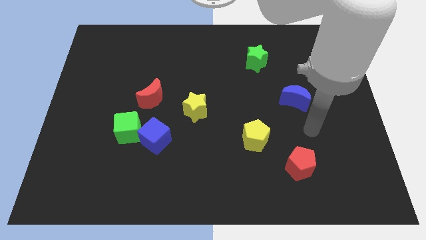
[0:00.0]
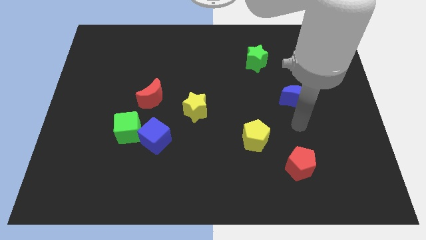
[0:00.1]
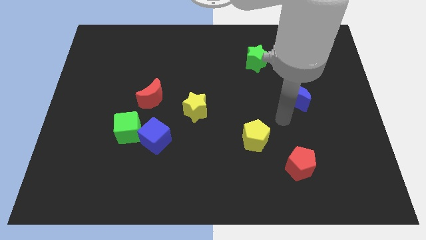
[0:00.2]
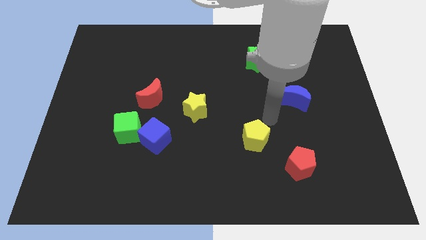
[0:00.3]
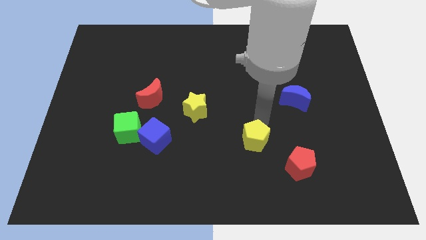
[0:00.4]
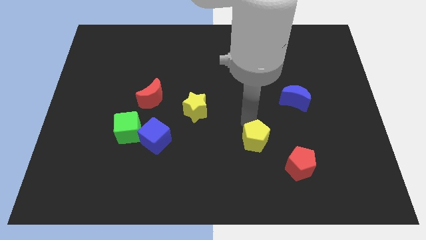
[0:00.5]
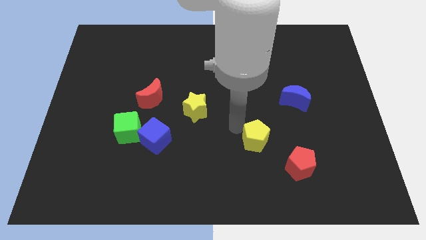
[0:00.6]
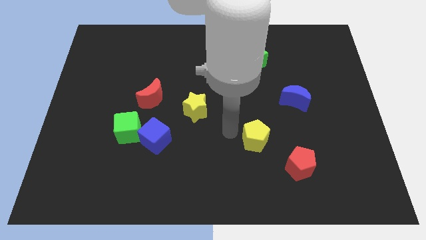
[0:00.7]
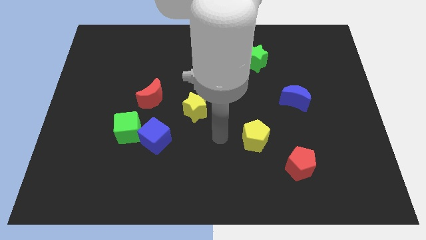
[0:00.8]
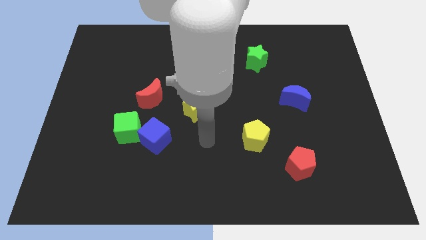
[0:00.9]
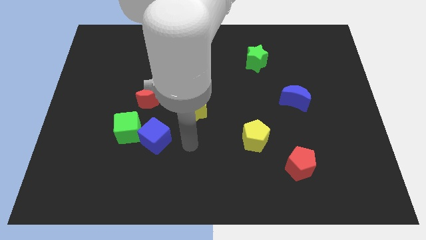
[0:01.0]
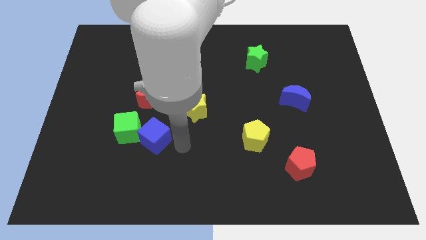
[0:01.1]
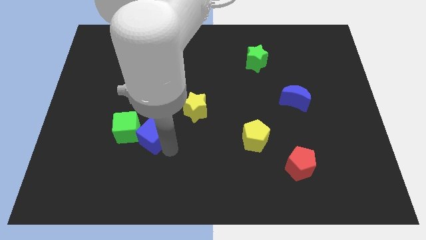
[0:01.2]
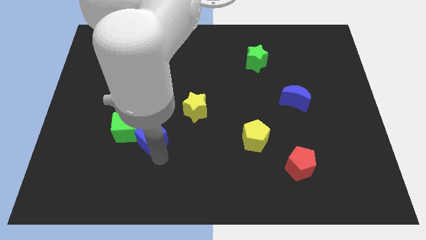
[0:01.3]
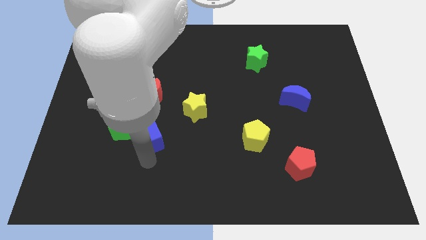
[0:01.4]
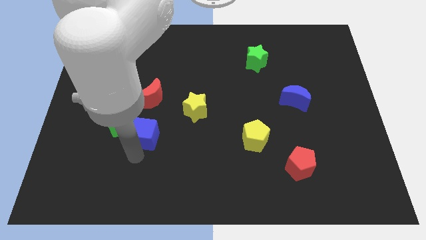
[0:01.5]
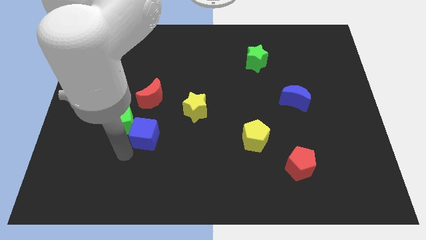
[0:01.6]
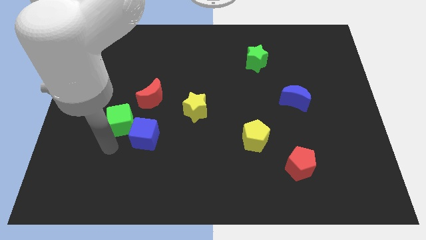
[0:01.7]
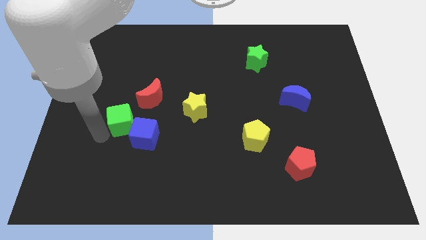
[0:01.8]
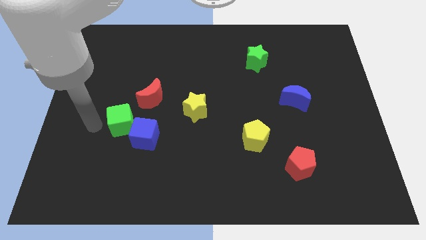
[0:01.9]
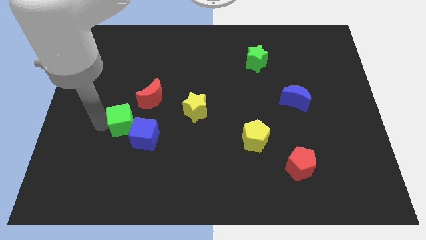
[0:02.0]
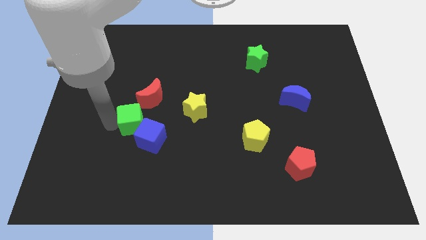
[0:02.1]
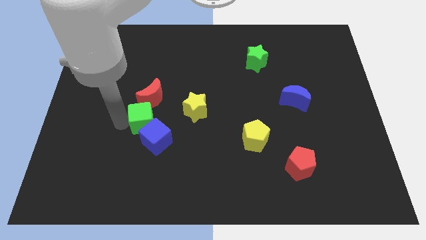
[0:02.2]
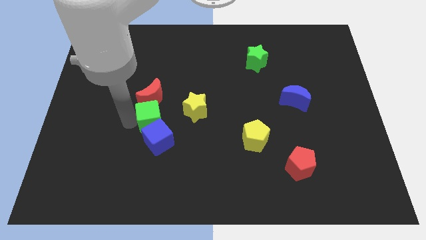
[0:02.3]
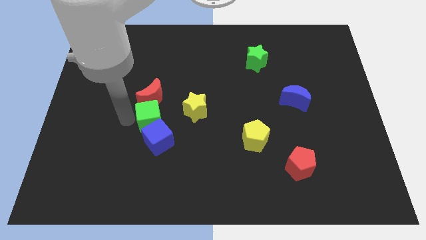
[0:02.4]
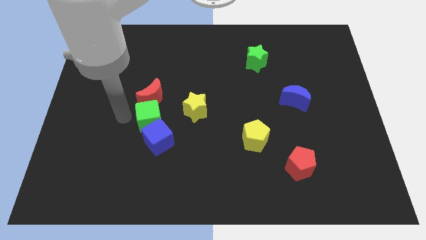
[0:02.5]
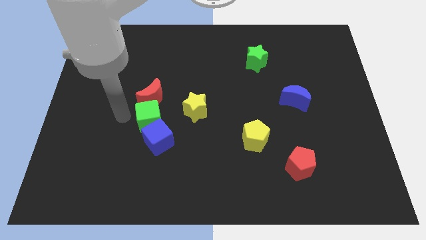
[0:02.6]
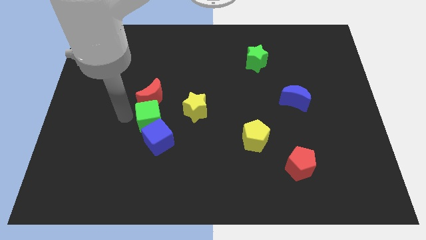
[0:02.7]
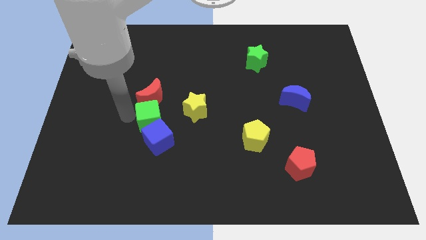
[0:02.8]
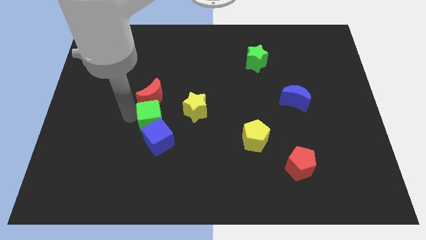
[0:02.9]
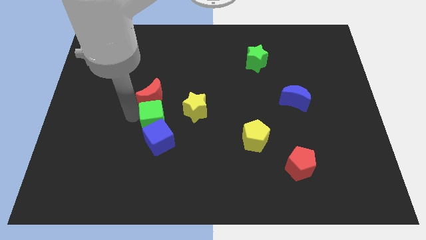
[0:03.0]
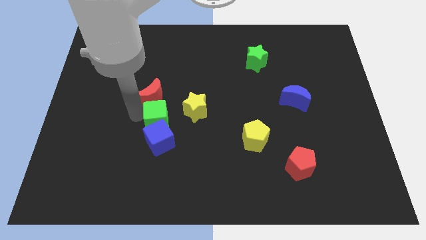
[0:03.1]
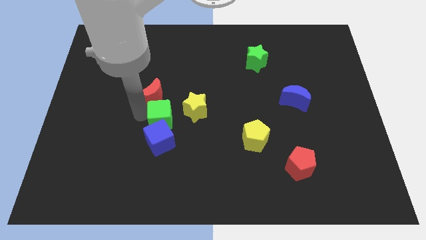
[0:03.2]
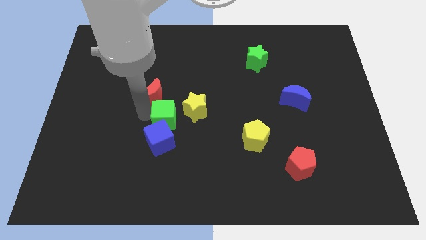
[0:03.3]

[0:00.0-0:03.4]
slide the green cube to the right slightly

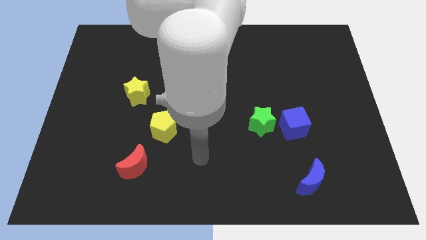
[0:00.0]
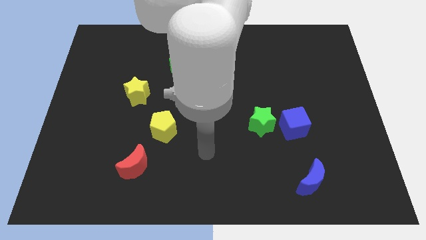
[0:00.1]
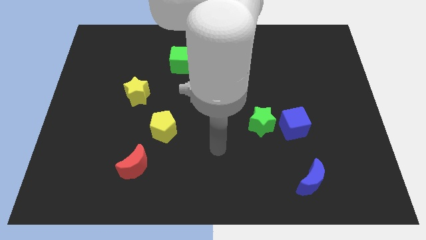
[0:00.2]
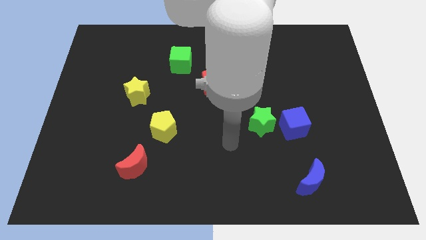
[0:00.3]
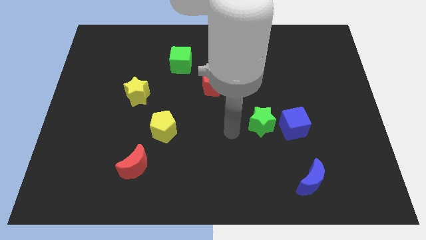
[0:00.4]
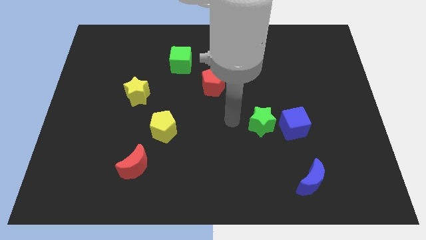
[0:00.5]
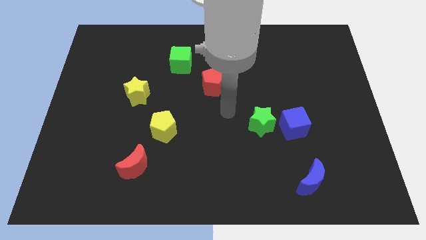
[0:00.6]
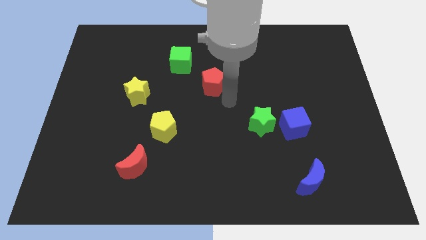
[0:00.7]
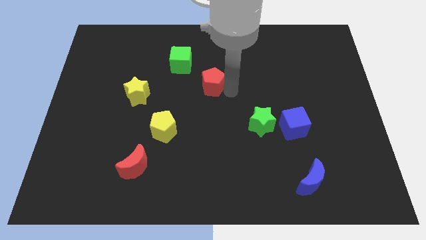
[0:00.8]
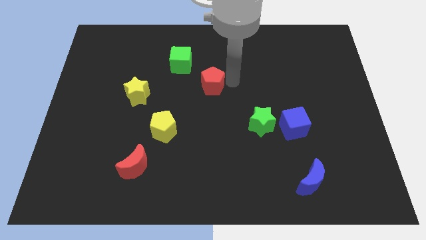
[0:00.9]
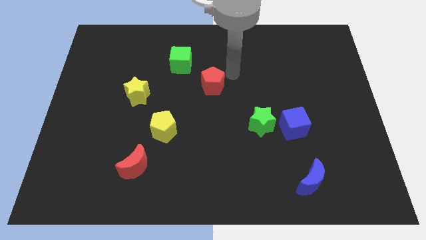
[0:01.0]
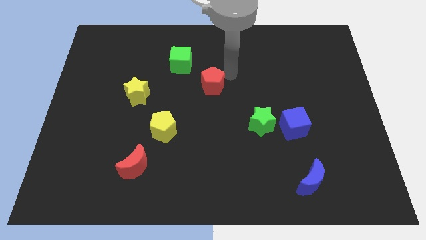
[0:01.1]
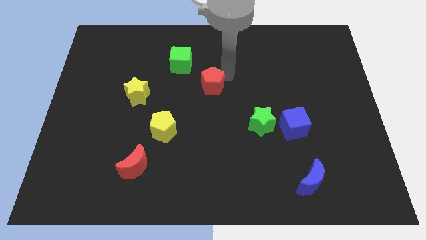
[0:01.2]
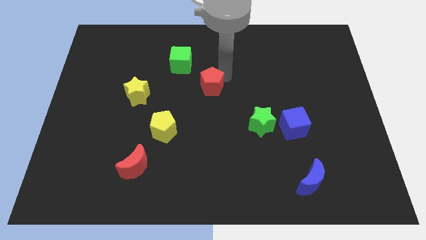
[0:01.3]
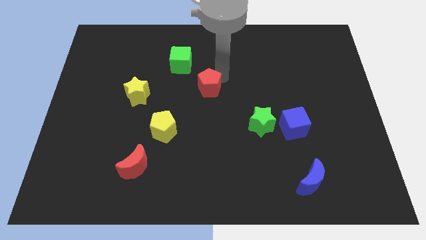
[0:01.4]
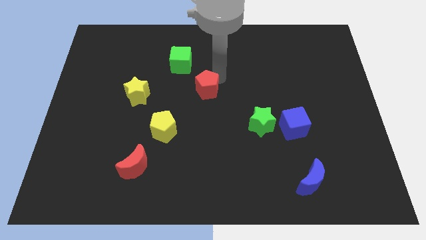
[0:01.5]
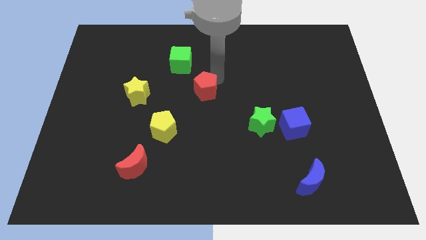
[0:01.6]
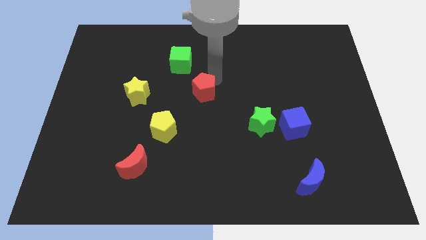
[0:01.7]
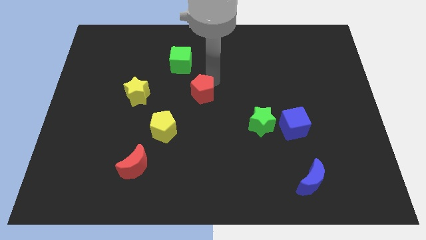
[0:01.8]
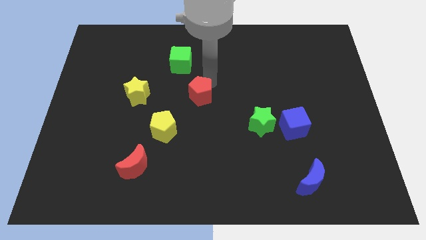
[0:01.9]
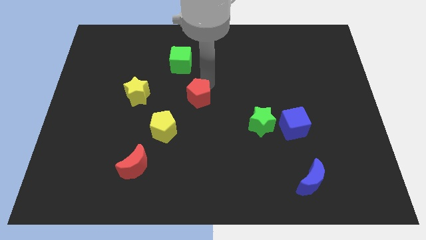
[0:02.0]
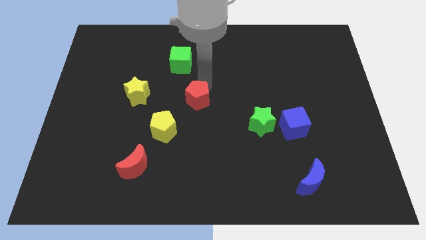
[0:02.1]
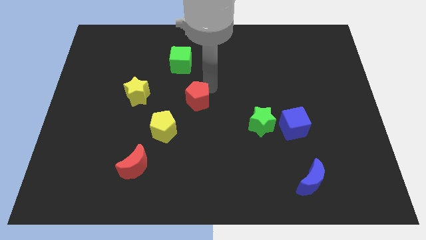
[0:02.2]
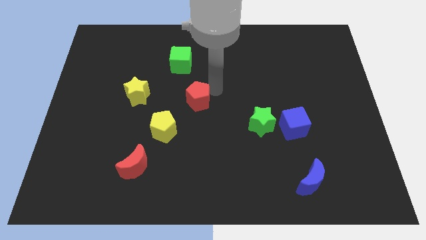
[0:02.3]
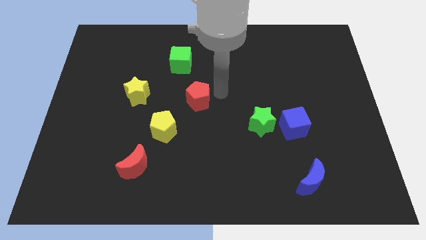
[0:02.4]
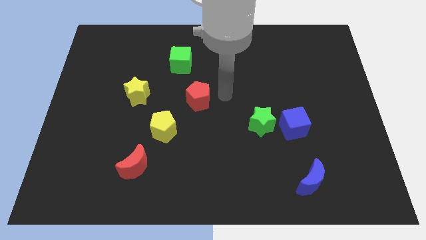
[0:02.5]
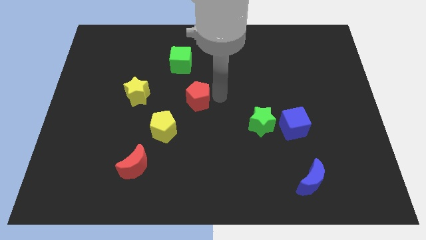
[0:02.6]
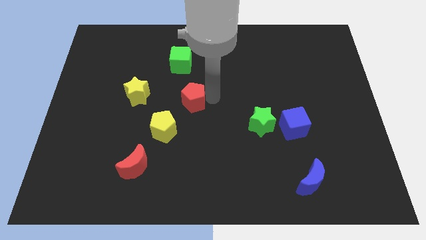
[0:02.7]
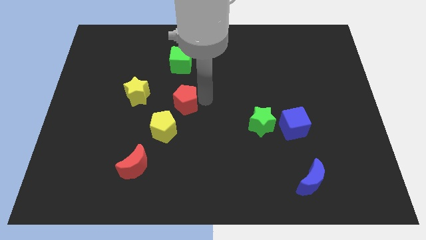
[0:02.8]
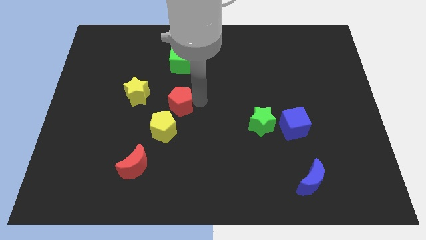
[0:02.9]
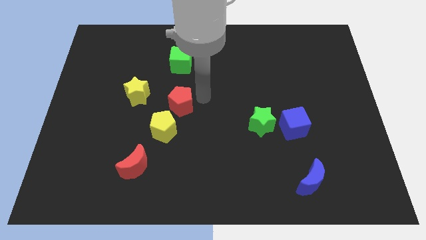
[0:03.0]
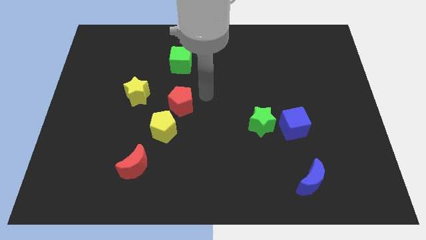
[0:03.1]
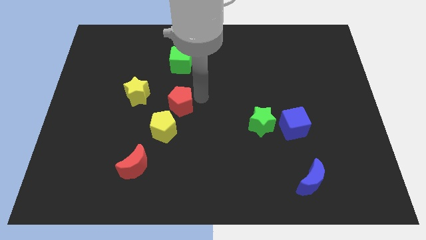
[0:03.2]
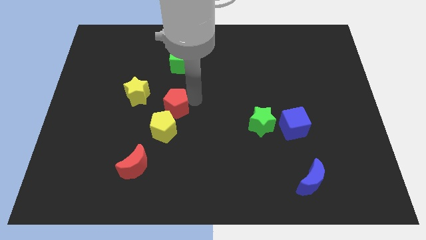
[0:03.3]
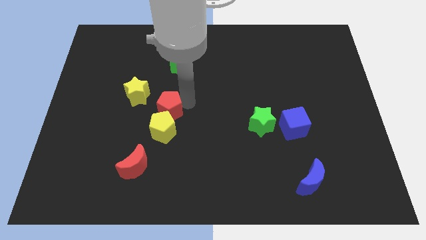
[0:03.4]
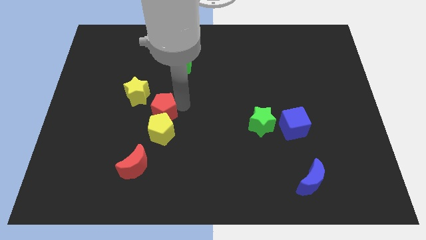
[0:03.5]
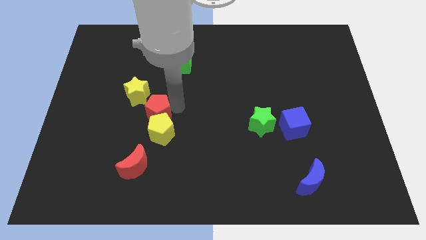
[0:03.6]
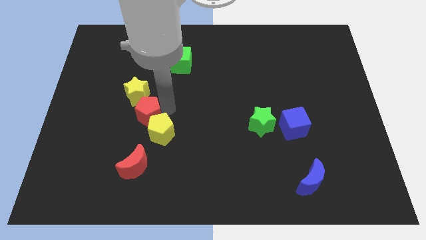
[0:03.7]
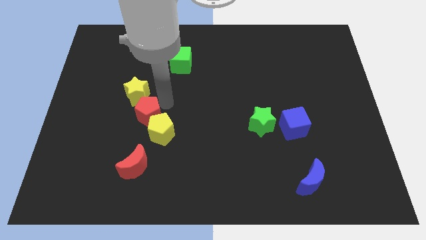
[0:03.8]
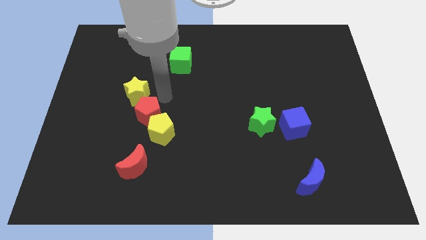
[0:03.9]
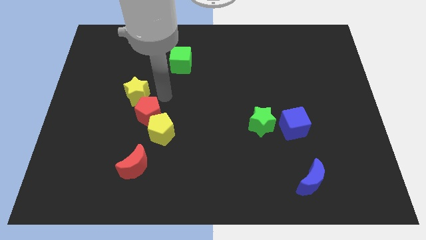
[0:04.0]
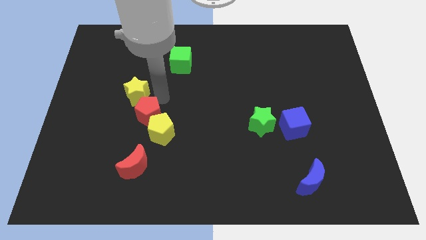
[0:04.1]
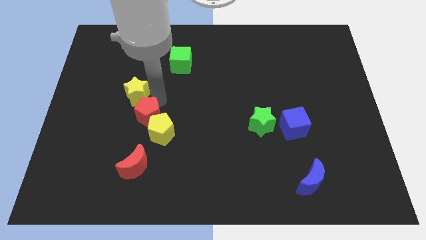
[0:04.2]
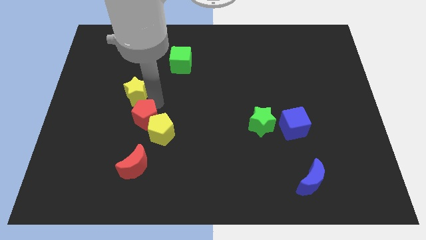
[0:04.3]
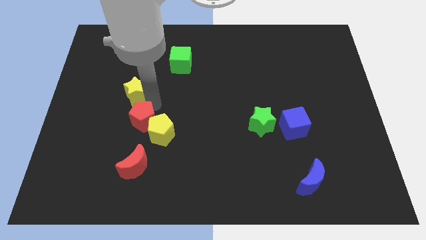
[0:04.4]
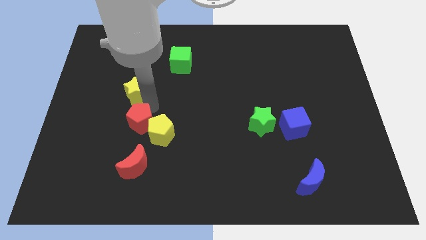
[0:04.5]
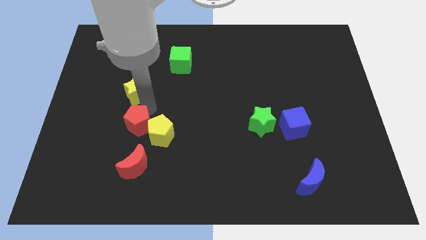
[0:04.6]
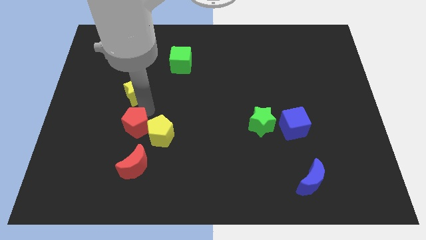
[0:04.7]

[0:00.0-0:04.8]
move the red pentagon down and left diagonally
